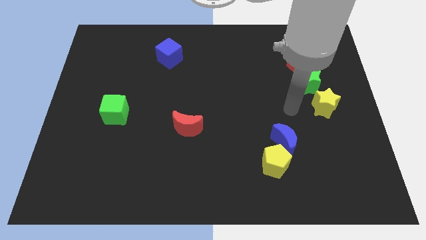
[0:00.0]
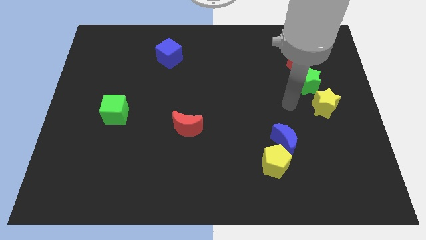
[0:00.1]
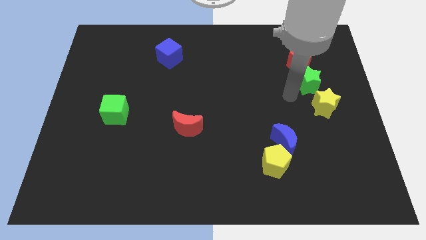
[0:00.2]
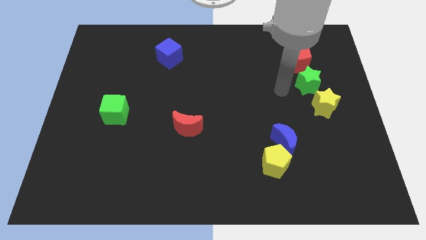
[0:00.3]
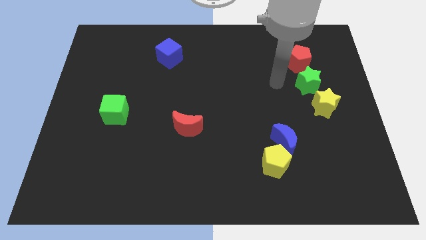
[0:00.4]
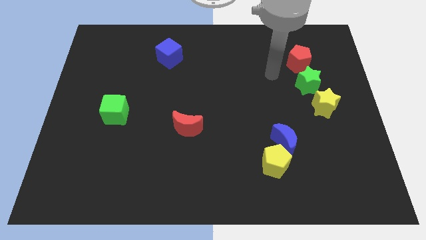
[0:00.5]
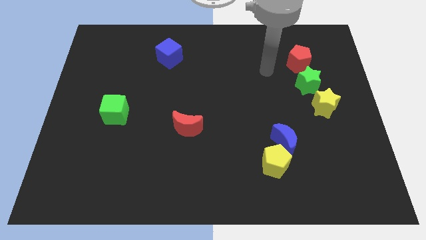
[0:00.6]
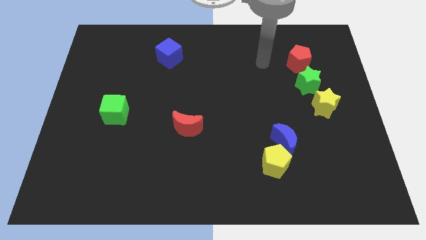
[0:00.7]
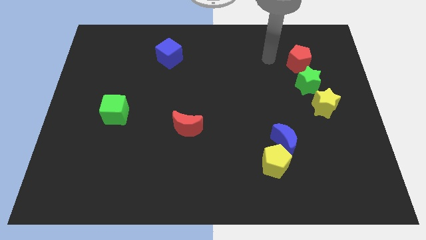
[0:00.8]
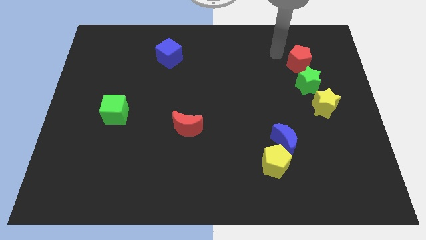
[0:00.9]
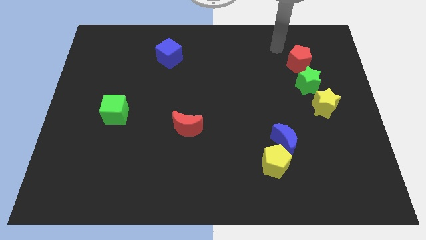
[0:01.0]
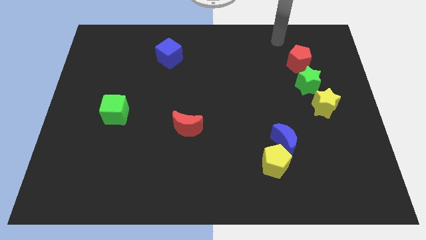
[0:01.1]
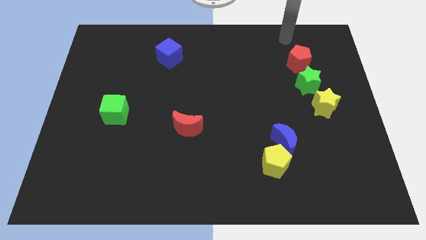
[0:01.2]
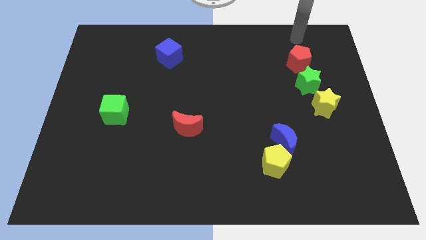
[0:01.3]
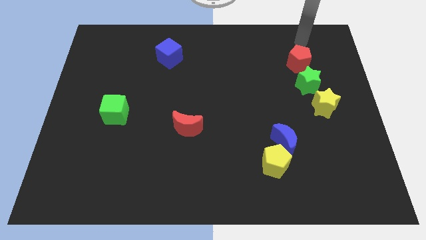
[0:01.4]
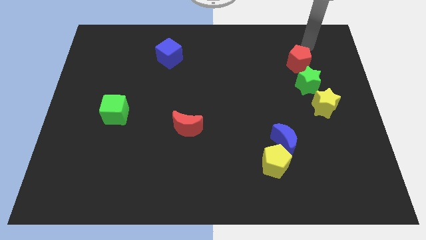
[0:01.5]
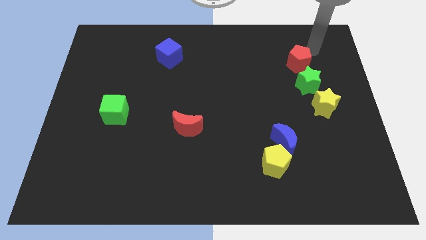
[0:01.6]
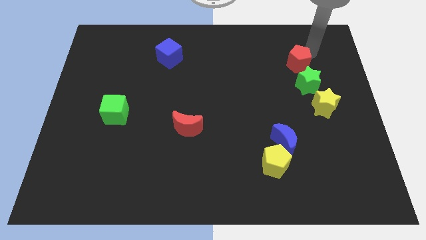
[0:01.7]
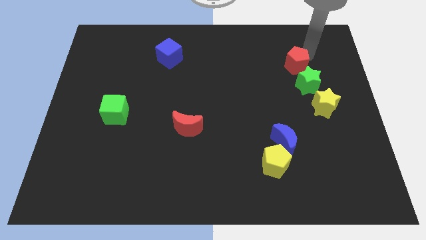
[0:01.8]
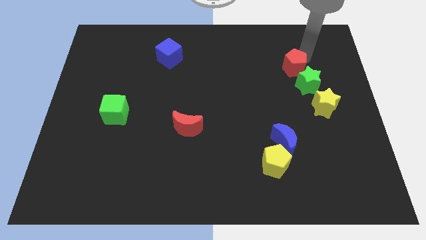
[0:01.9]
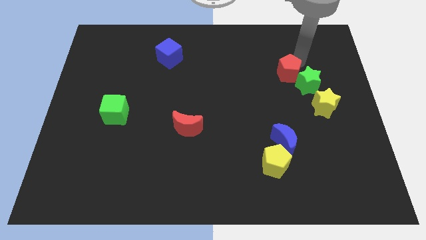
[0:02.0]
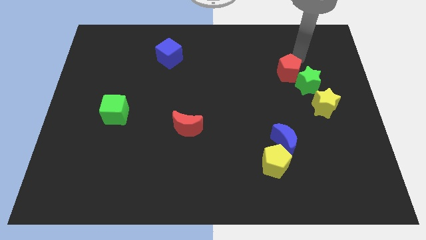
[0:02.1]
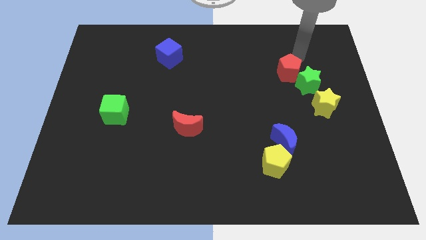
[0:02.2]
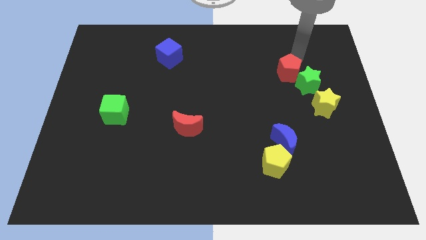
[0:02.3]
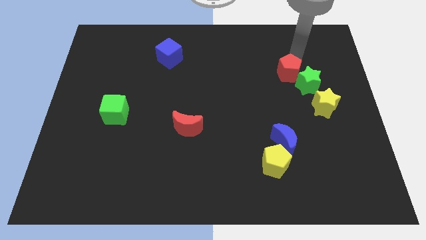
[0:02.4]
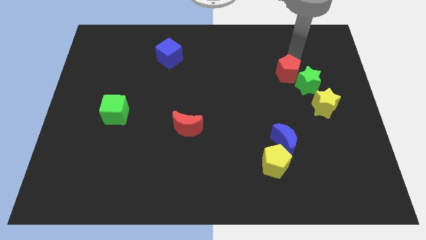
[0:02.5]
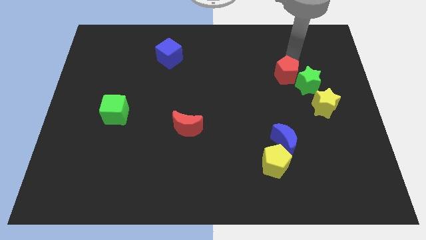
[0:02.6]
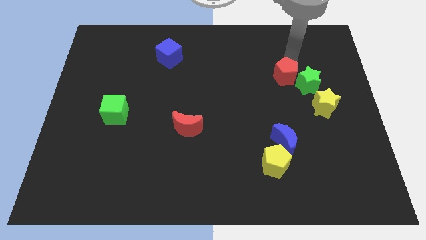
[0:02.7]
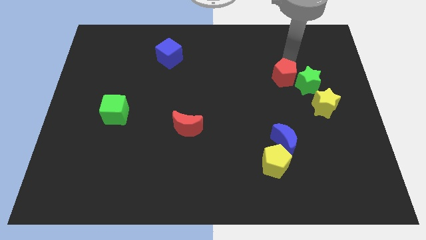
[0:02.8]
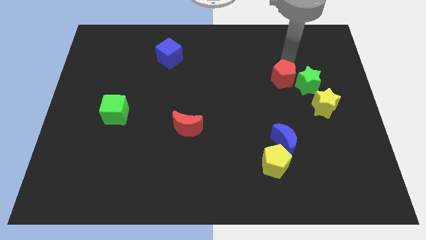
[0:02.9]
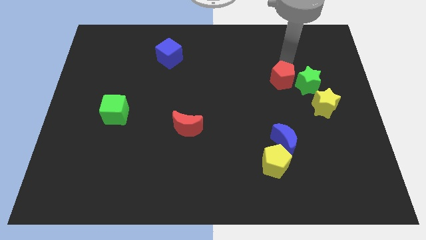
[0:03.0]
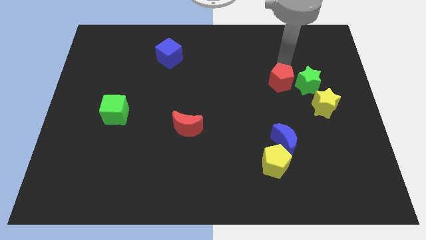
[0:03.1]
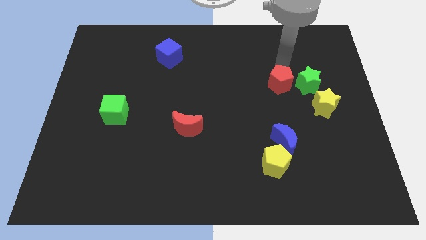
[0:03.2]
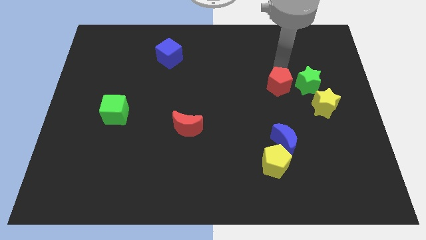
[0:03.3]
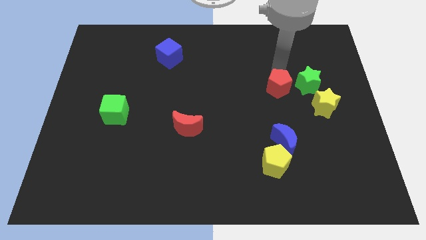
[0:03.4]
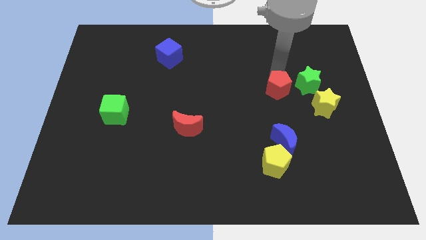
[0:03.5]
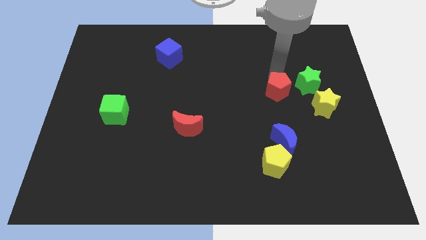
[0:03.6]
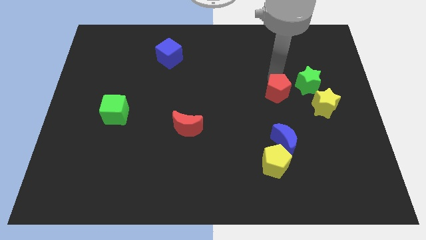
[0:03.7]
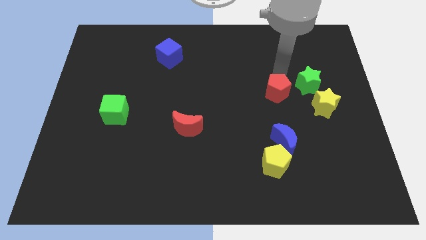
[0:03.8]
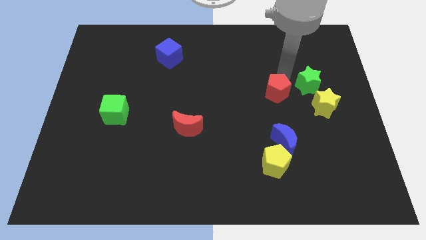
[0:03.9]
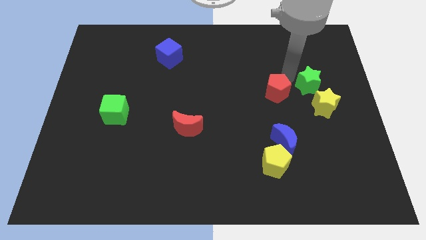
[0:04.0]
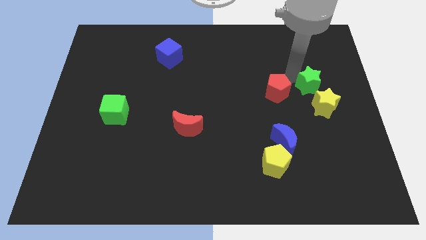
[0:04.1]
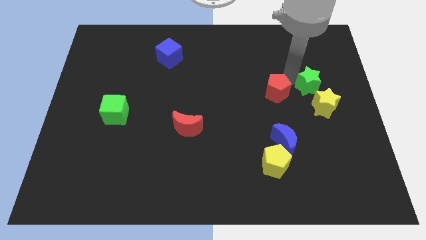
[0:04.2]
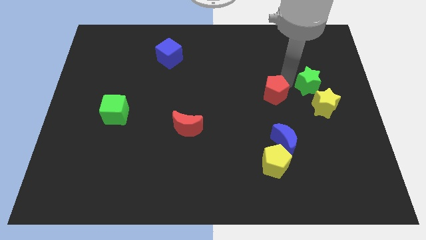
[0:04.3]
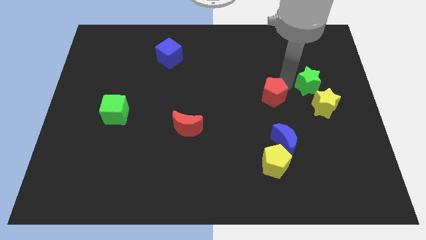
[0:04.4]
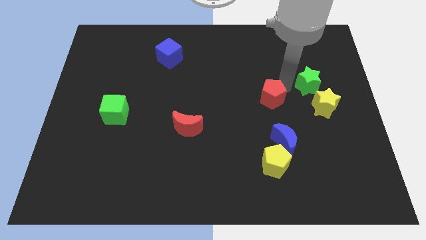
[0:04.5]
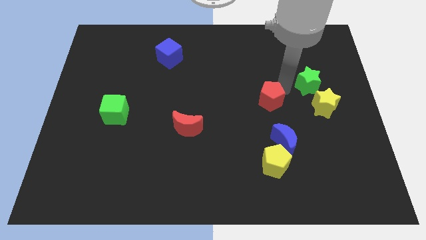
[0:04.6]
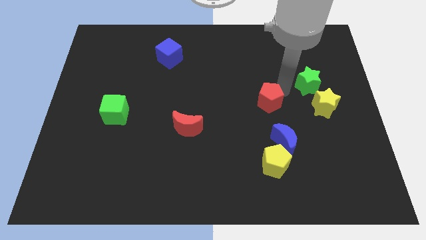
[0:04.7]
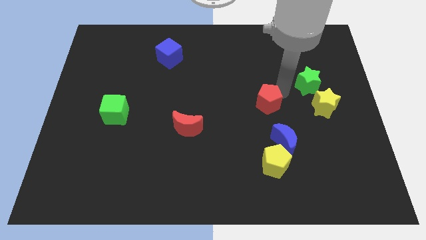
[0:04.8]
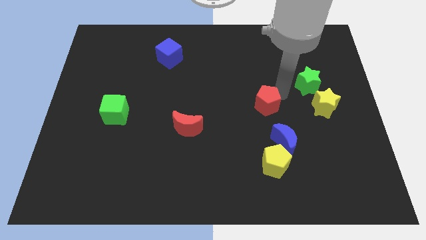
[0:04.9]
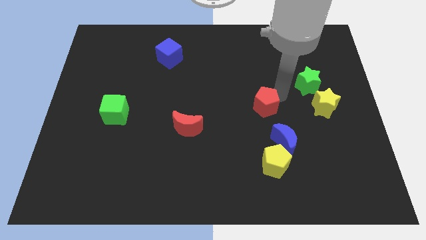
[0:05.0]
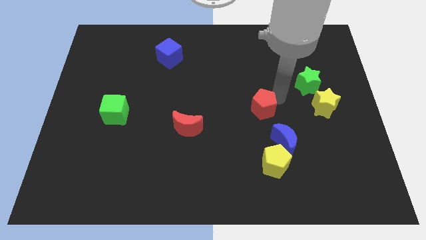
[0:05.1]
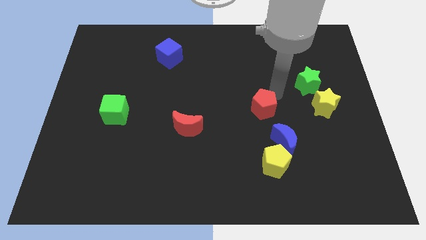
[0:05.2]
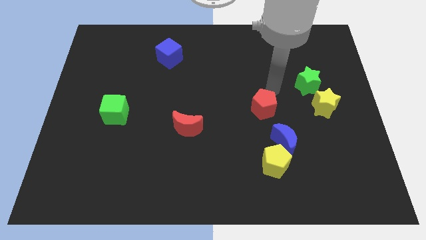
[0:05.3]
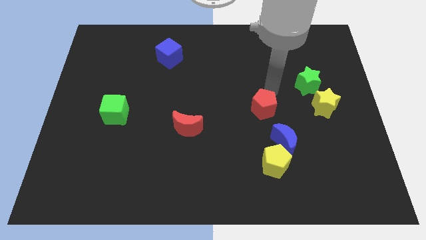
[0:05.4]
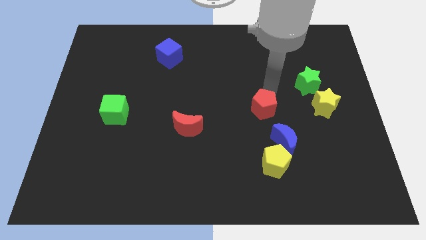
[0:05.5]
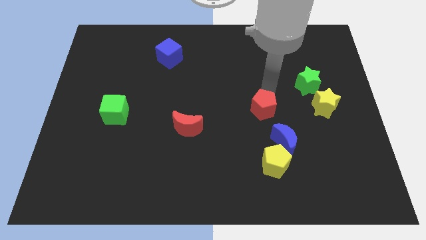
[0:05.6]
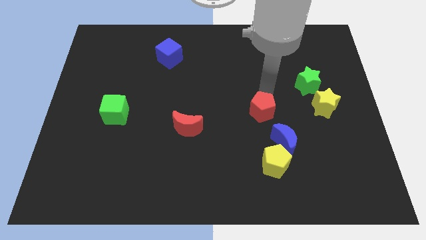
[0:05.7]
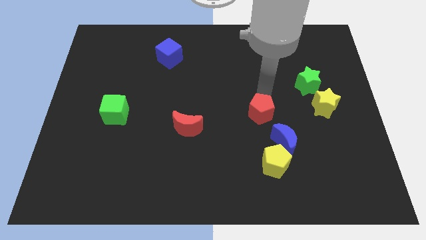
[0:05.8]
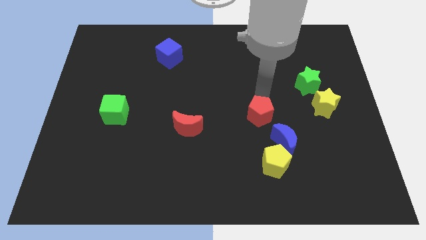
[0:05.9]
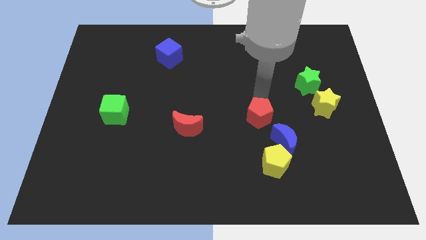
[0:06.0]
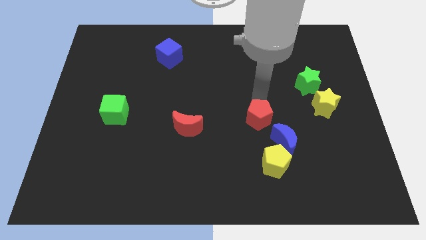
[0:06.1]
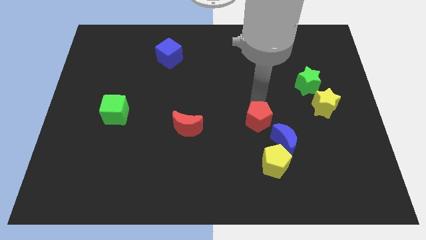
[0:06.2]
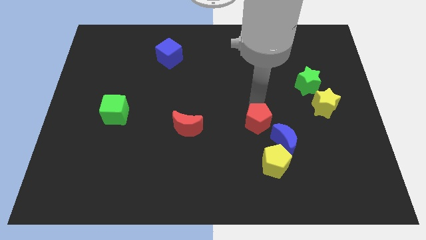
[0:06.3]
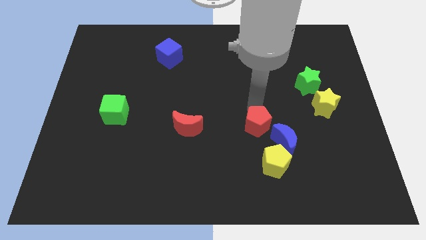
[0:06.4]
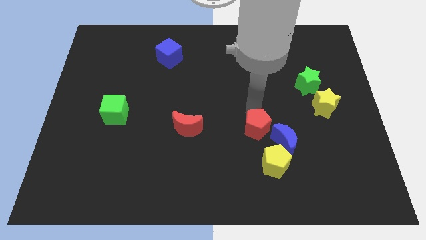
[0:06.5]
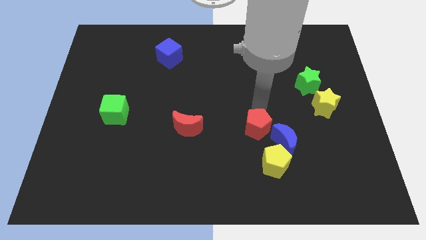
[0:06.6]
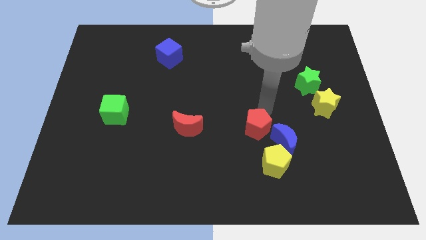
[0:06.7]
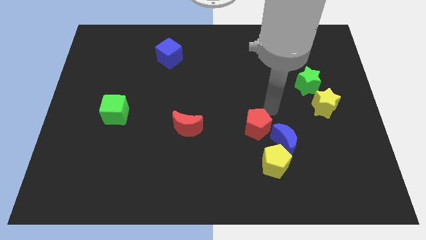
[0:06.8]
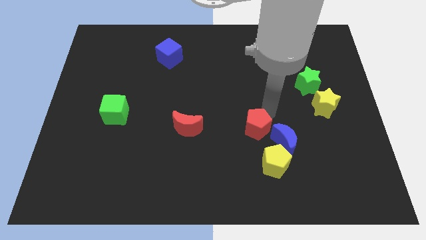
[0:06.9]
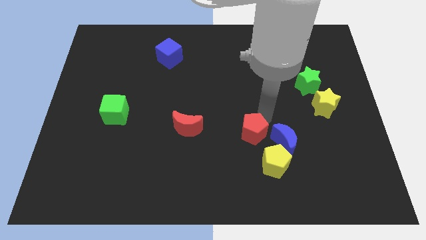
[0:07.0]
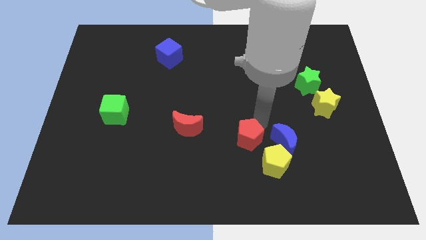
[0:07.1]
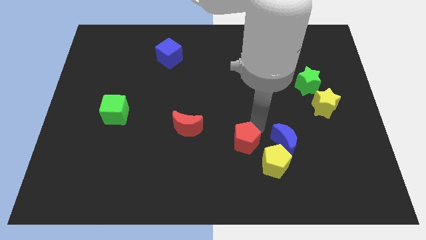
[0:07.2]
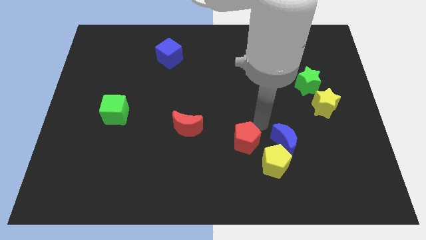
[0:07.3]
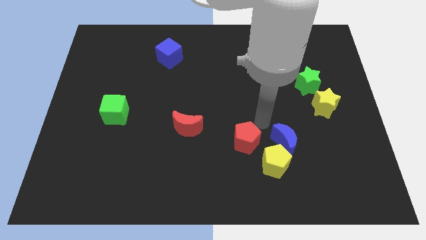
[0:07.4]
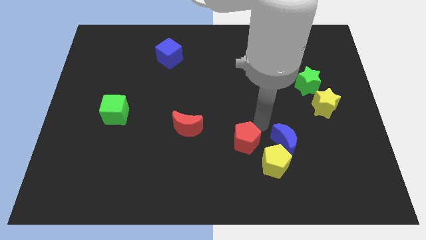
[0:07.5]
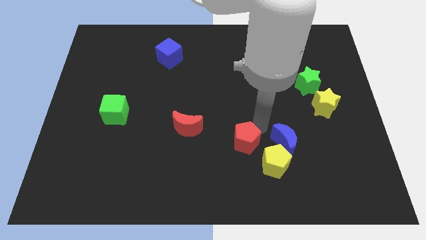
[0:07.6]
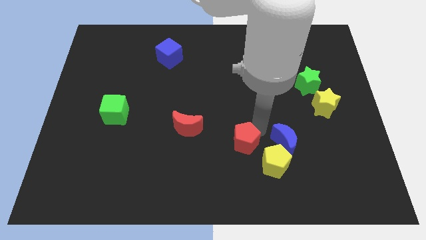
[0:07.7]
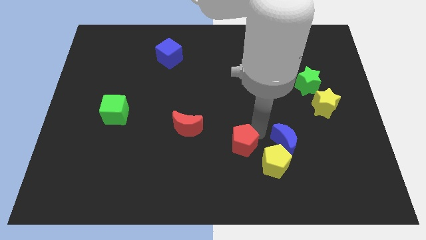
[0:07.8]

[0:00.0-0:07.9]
slide the red pentagon left of the yellow pentagon
